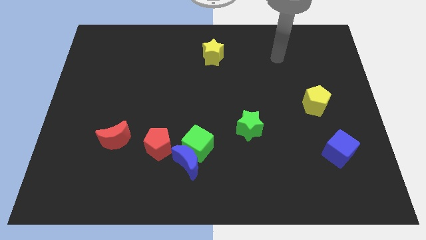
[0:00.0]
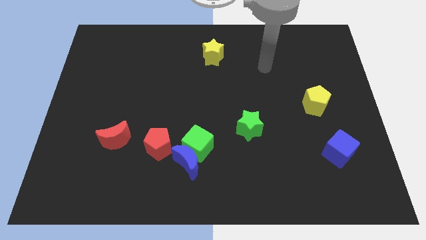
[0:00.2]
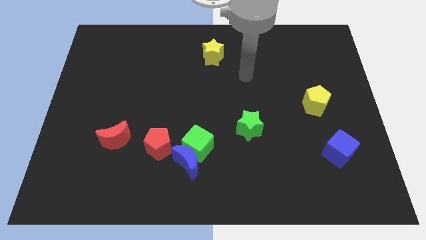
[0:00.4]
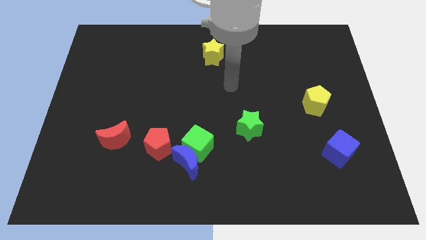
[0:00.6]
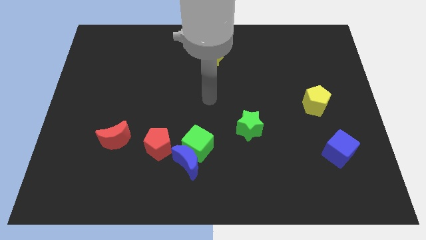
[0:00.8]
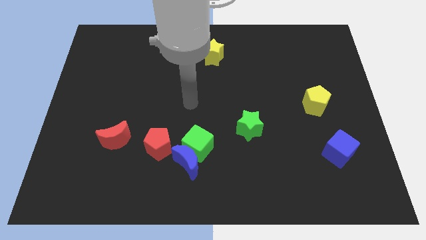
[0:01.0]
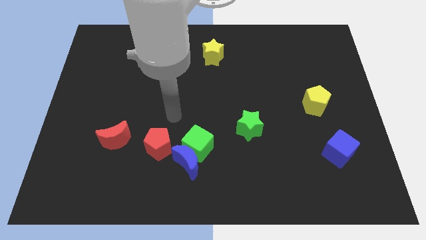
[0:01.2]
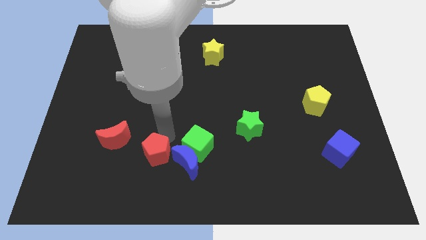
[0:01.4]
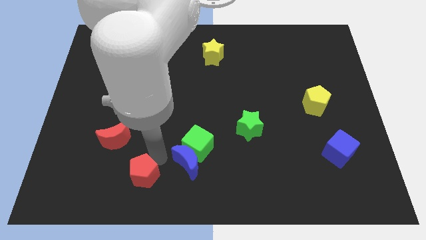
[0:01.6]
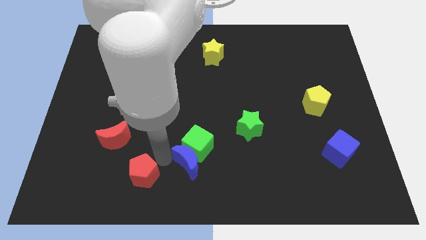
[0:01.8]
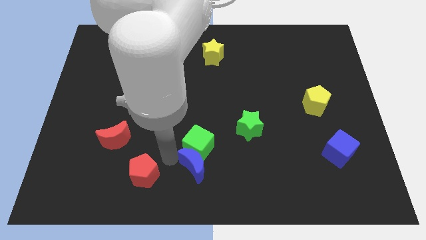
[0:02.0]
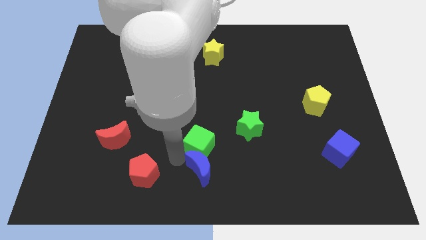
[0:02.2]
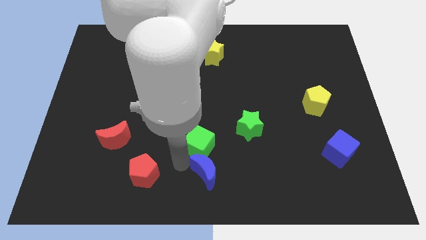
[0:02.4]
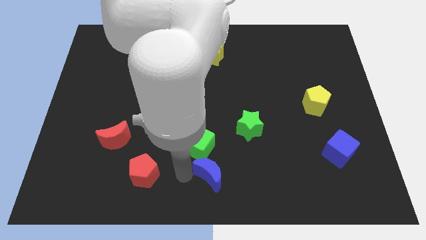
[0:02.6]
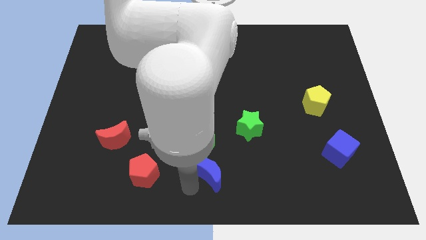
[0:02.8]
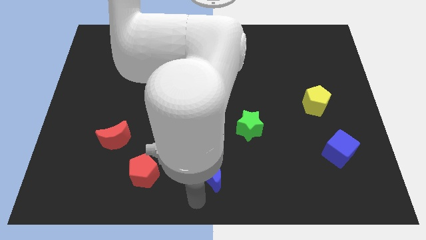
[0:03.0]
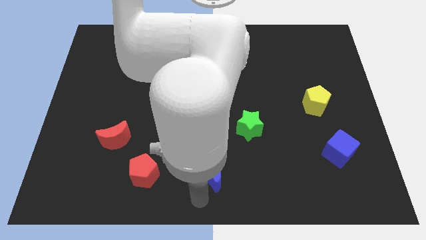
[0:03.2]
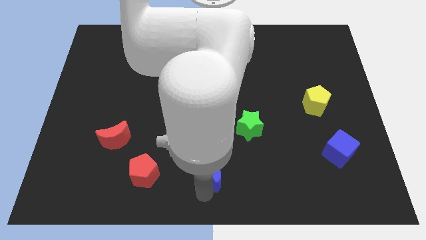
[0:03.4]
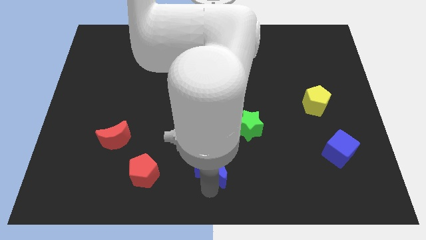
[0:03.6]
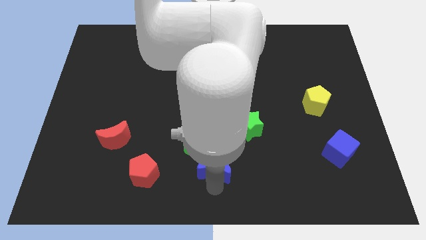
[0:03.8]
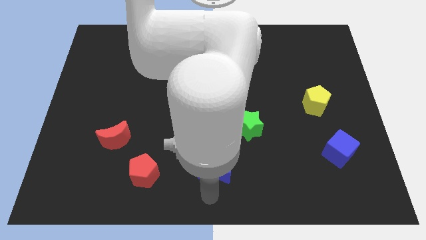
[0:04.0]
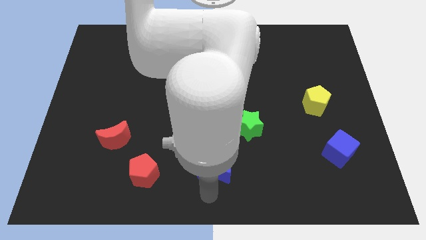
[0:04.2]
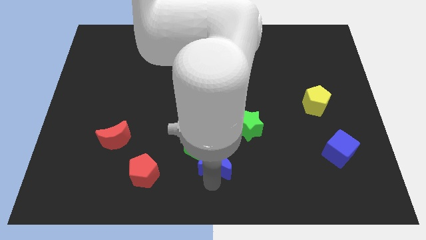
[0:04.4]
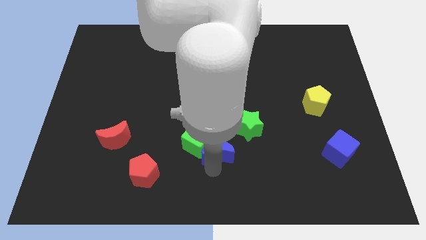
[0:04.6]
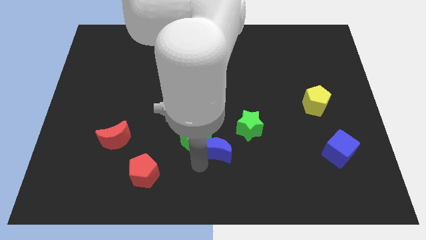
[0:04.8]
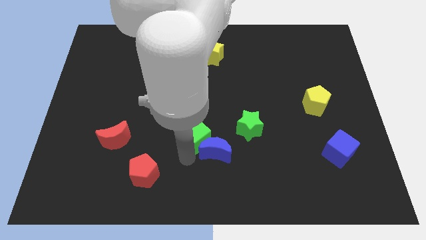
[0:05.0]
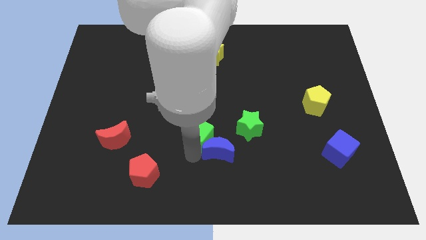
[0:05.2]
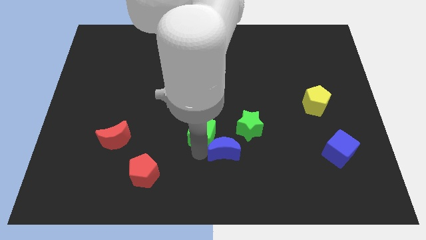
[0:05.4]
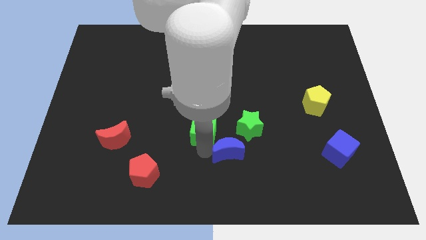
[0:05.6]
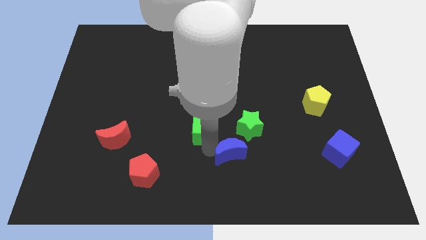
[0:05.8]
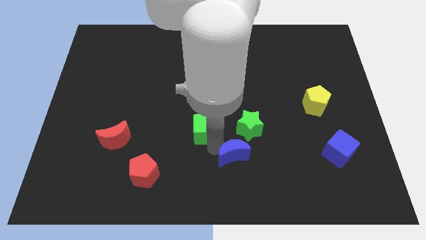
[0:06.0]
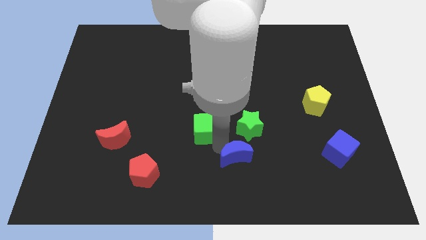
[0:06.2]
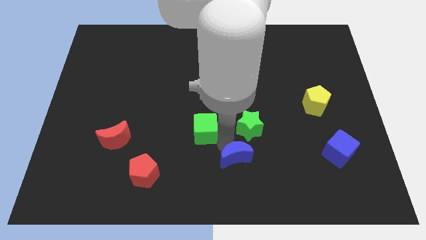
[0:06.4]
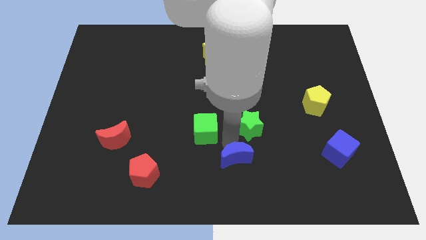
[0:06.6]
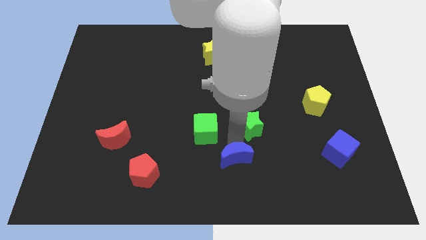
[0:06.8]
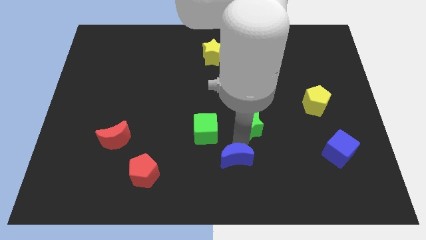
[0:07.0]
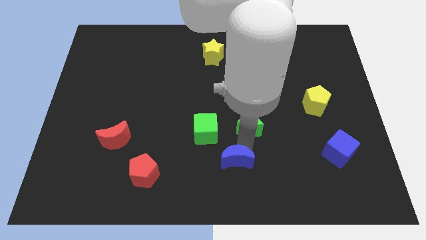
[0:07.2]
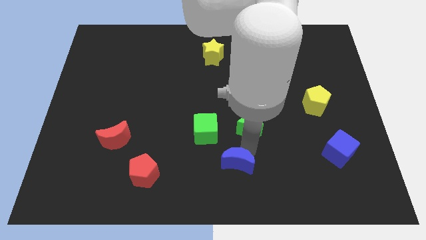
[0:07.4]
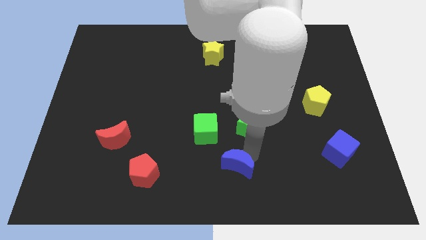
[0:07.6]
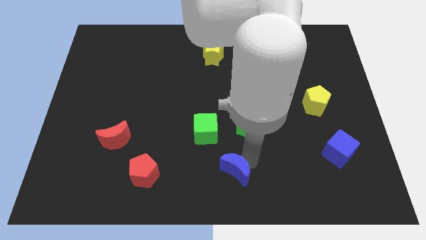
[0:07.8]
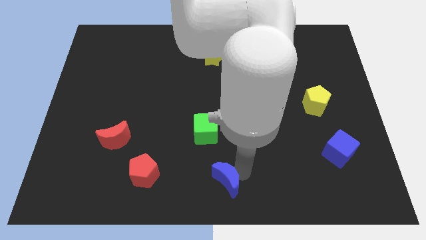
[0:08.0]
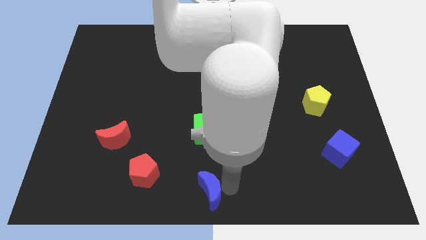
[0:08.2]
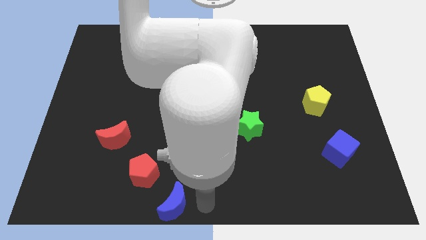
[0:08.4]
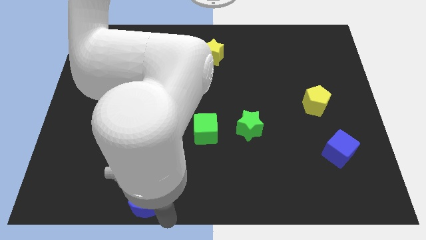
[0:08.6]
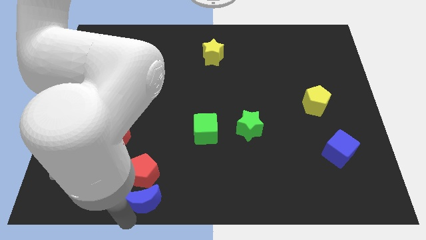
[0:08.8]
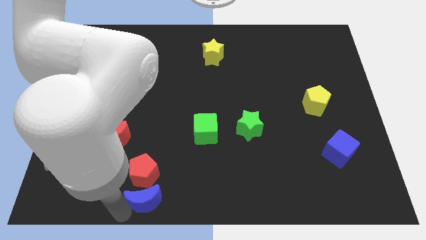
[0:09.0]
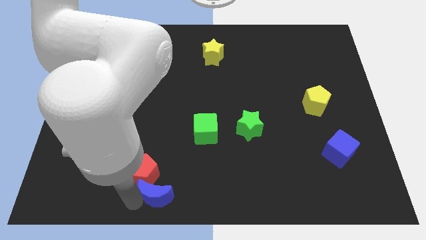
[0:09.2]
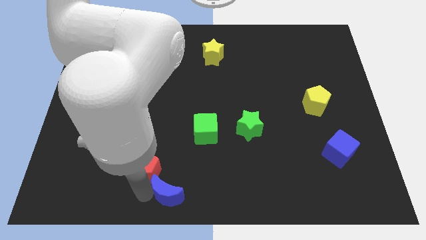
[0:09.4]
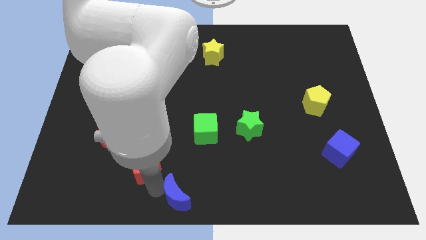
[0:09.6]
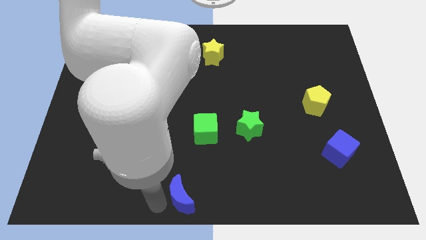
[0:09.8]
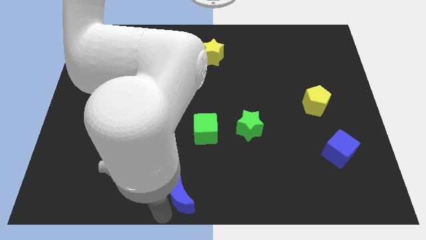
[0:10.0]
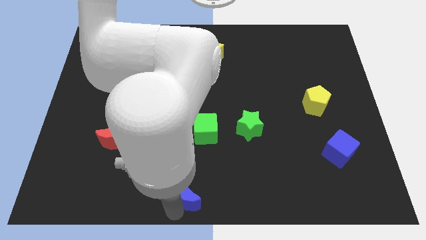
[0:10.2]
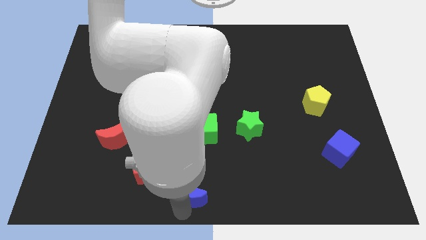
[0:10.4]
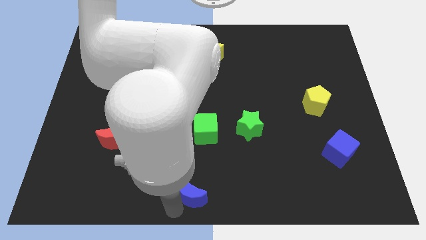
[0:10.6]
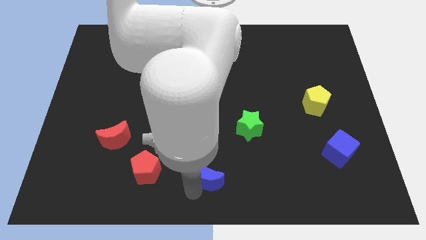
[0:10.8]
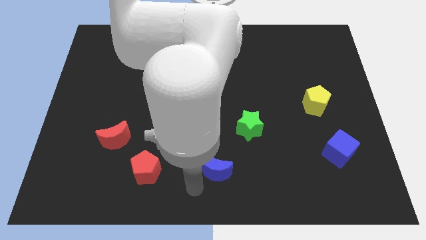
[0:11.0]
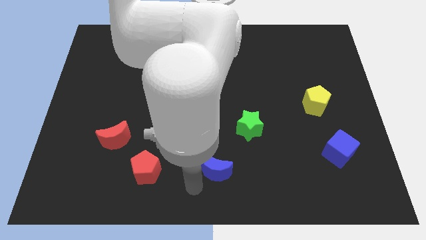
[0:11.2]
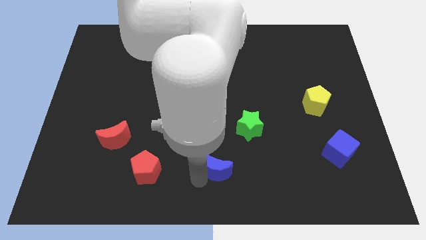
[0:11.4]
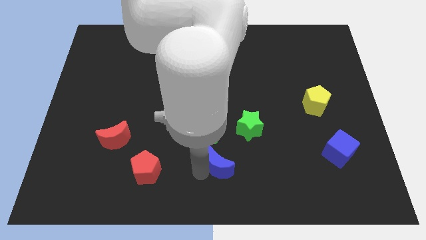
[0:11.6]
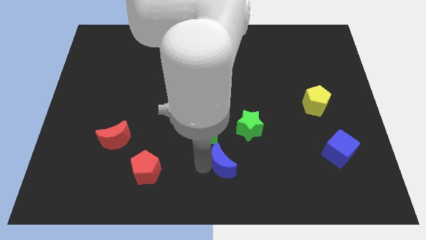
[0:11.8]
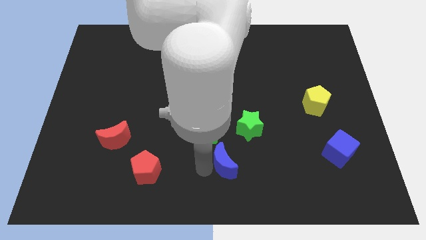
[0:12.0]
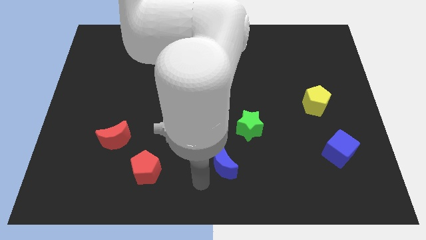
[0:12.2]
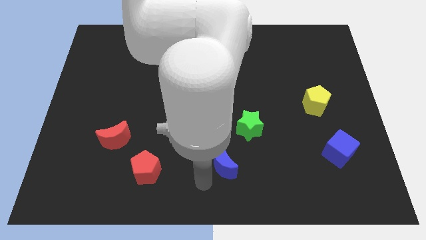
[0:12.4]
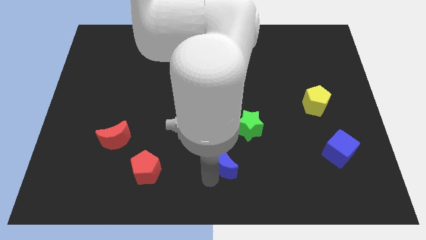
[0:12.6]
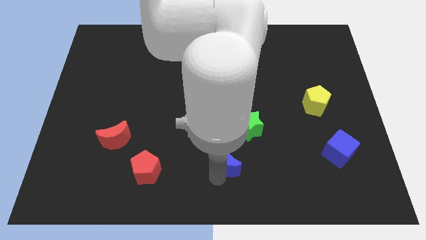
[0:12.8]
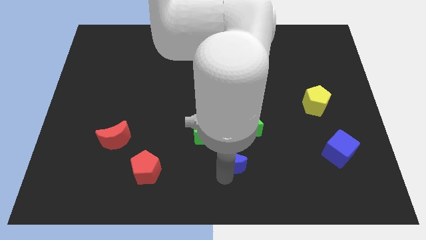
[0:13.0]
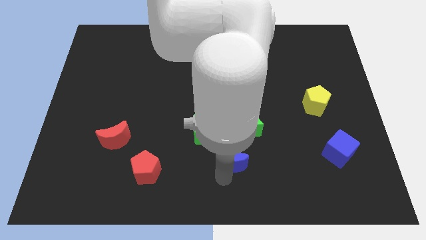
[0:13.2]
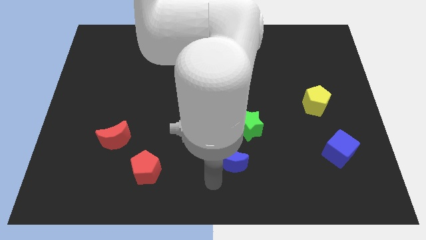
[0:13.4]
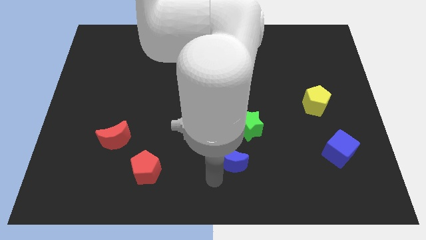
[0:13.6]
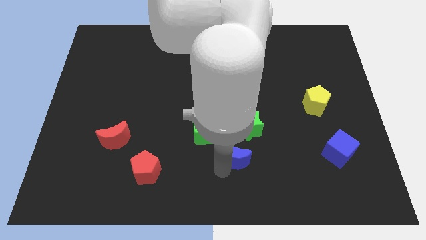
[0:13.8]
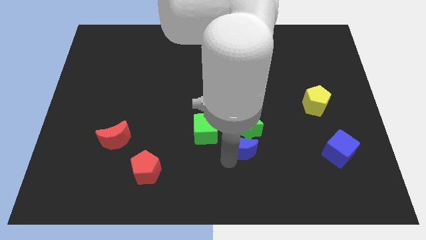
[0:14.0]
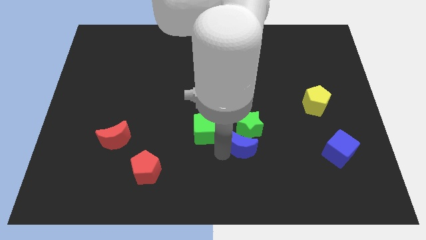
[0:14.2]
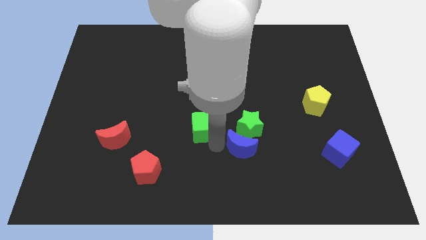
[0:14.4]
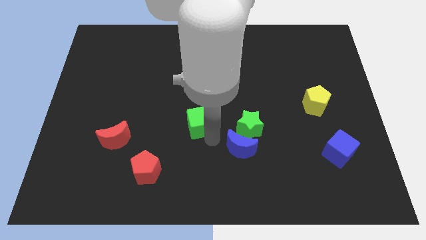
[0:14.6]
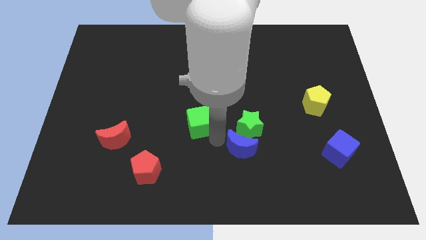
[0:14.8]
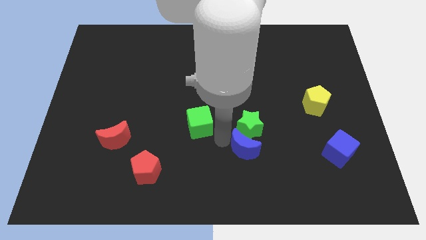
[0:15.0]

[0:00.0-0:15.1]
move the blue moon to the bottom right of the green star
